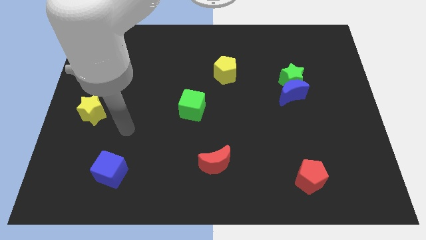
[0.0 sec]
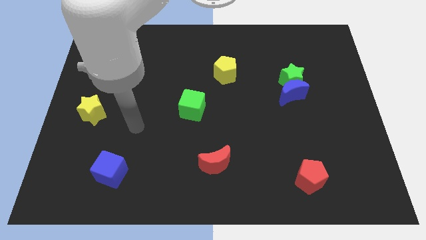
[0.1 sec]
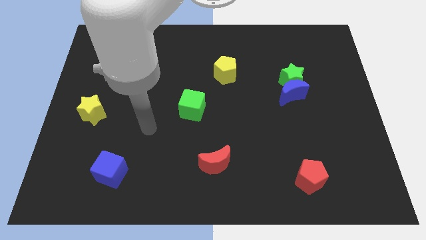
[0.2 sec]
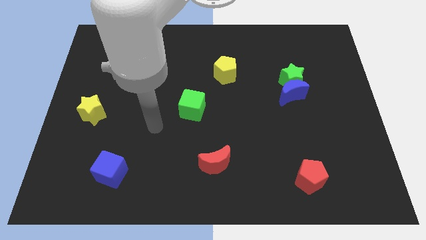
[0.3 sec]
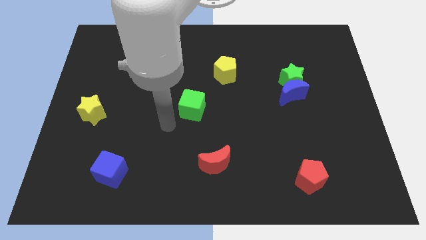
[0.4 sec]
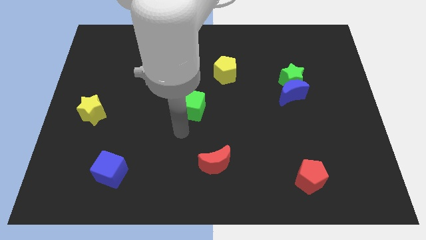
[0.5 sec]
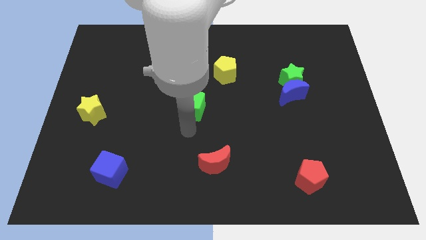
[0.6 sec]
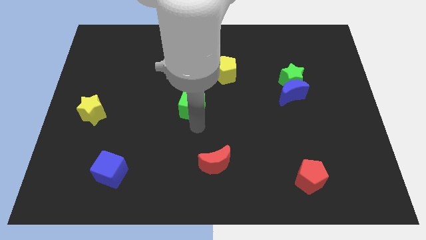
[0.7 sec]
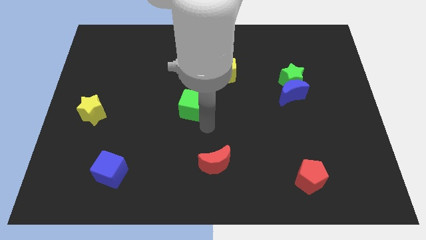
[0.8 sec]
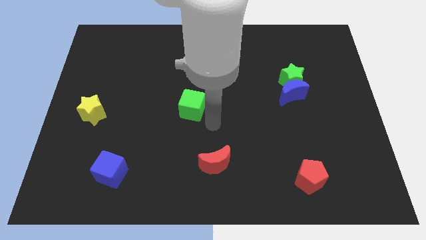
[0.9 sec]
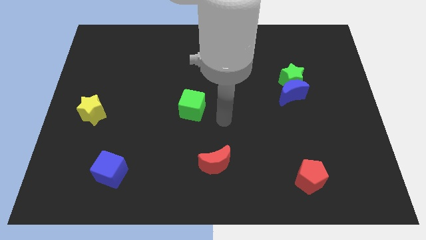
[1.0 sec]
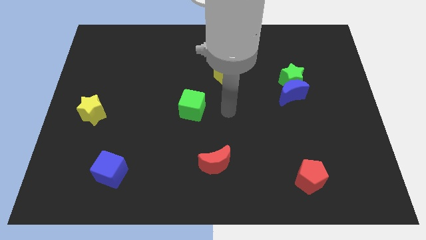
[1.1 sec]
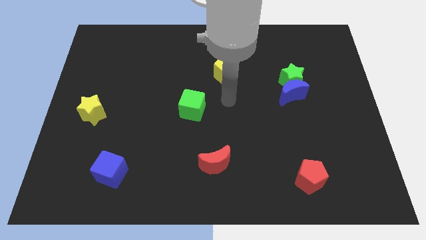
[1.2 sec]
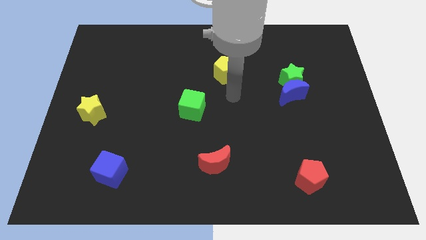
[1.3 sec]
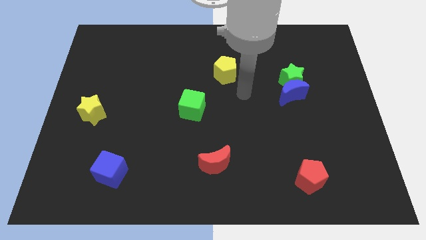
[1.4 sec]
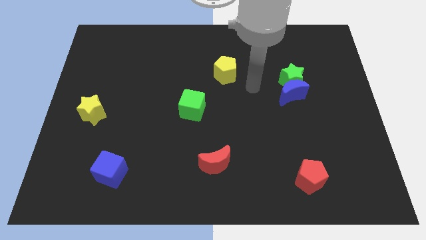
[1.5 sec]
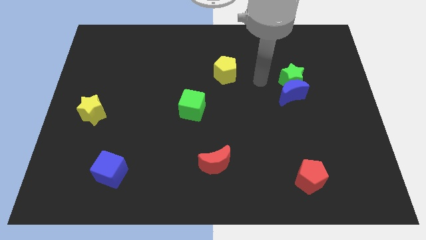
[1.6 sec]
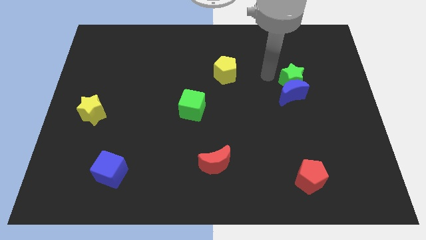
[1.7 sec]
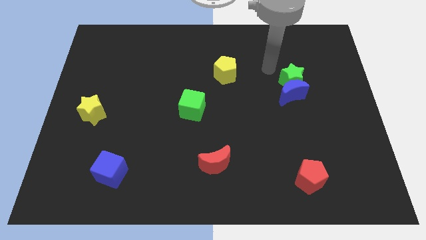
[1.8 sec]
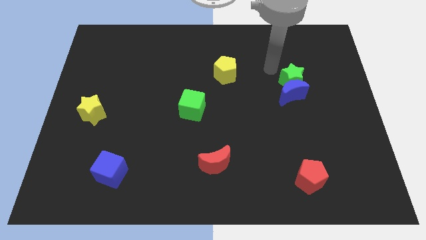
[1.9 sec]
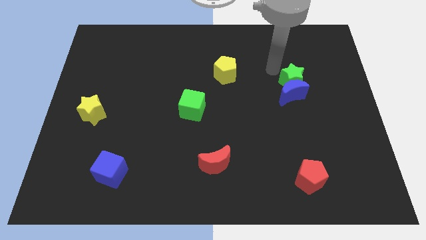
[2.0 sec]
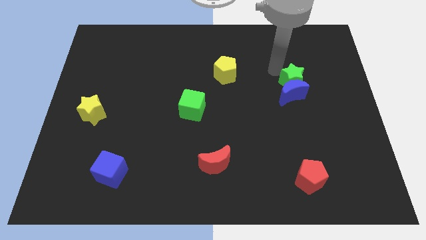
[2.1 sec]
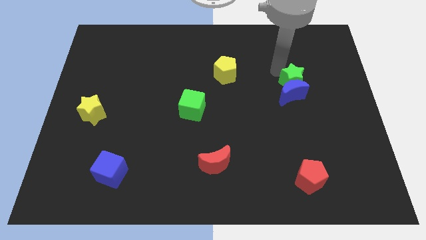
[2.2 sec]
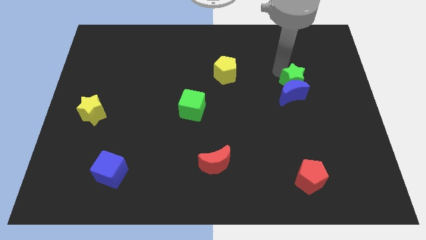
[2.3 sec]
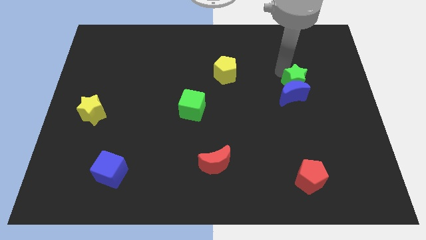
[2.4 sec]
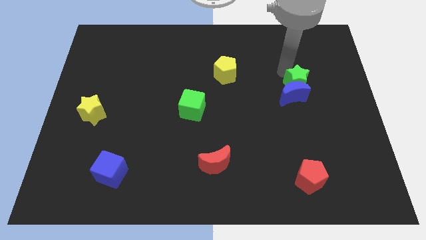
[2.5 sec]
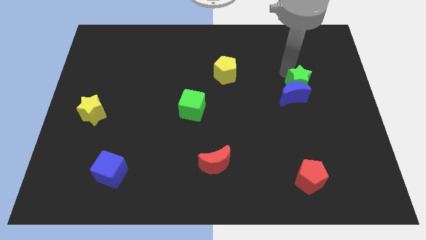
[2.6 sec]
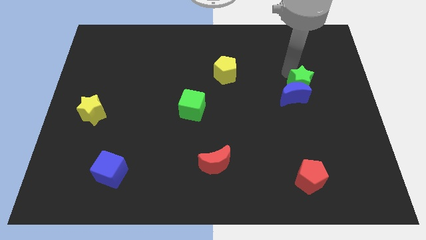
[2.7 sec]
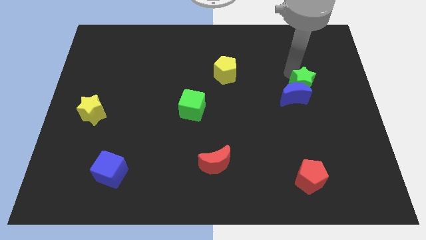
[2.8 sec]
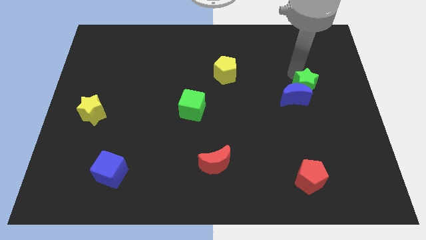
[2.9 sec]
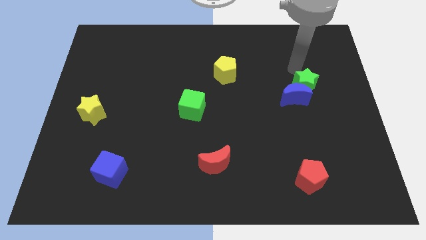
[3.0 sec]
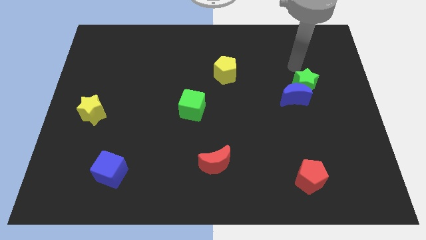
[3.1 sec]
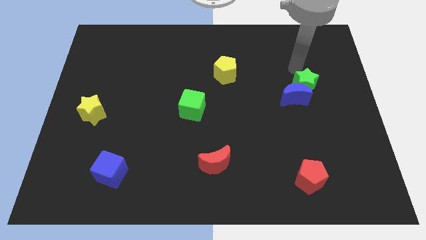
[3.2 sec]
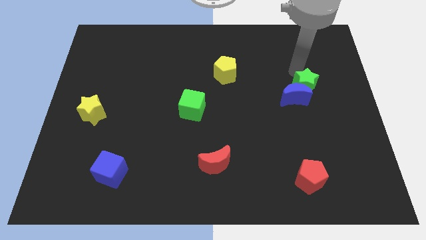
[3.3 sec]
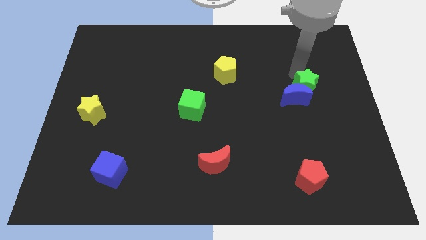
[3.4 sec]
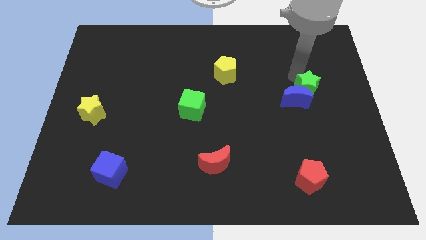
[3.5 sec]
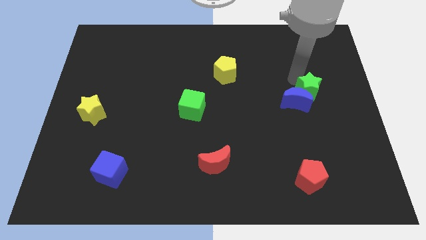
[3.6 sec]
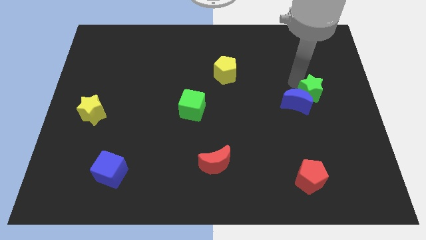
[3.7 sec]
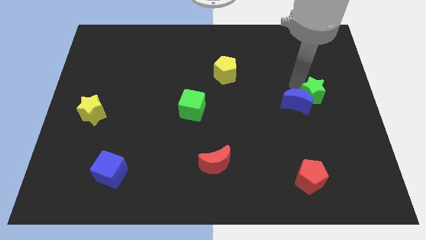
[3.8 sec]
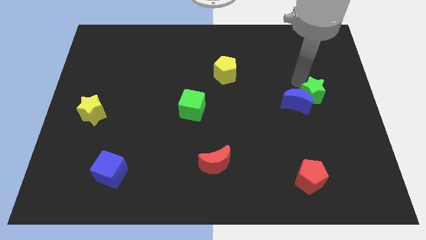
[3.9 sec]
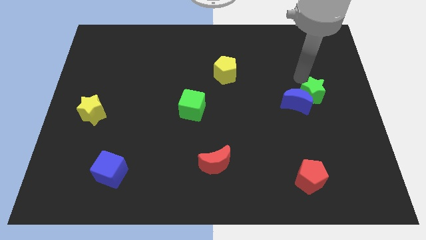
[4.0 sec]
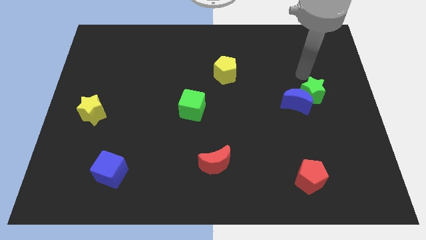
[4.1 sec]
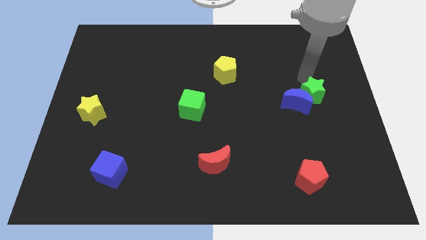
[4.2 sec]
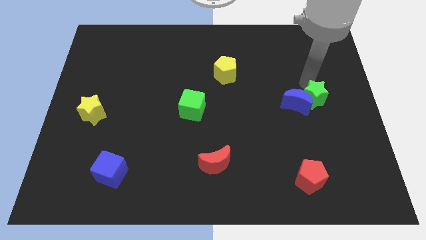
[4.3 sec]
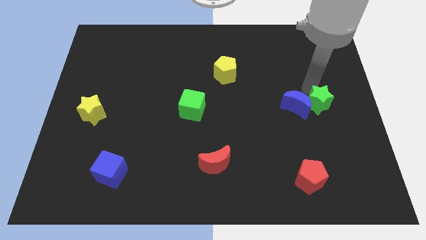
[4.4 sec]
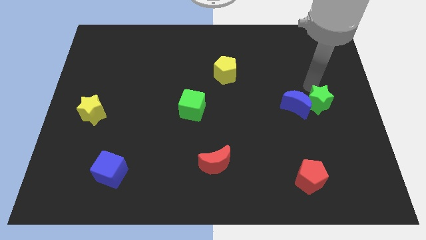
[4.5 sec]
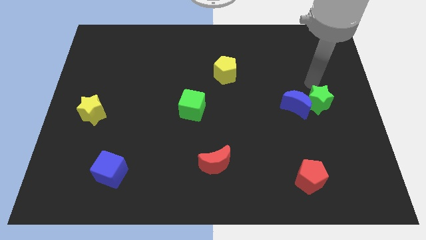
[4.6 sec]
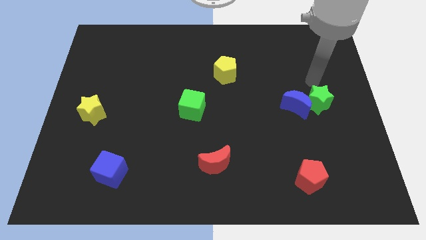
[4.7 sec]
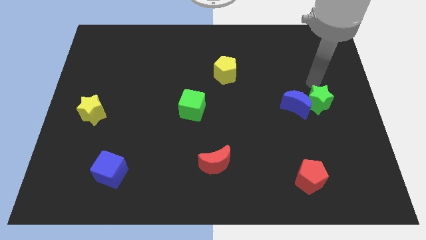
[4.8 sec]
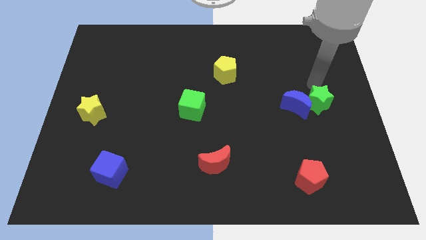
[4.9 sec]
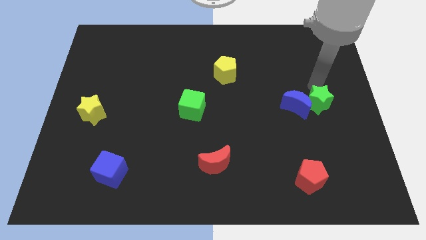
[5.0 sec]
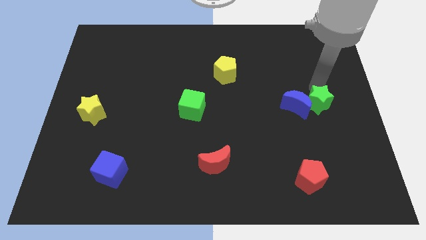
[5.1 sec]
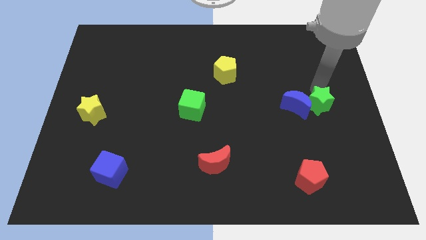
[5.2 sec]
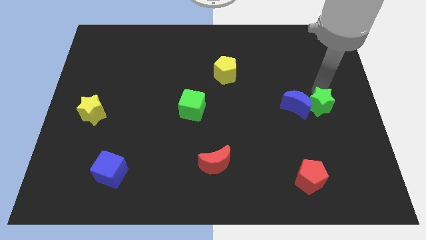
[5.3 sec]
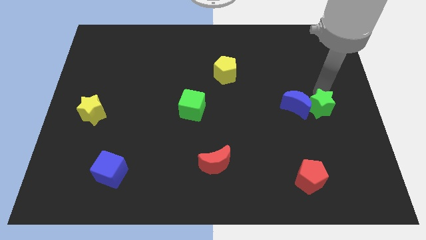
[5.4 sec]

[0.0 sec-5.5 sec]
push the green star somewhat down

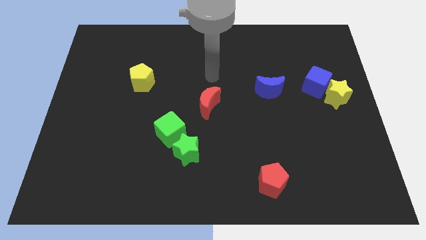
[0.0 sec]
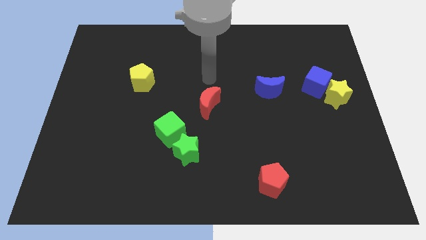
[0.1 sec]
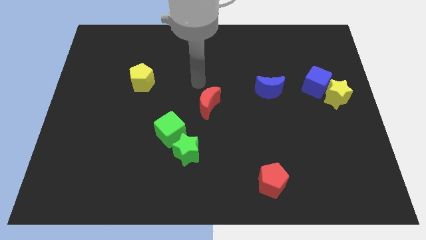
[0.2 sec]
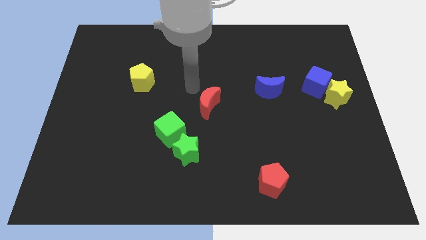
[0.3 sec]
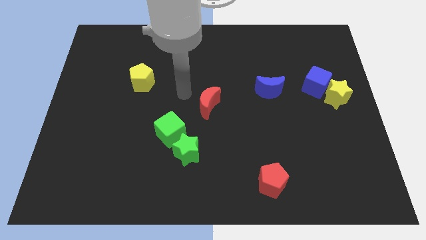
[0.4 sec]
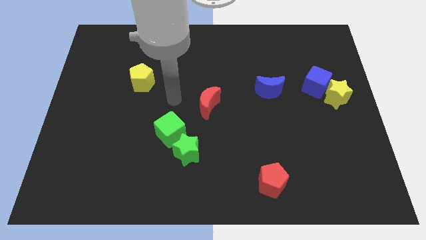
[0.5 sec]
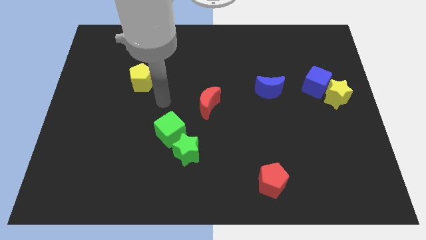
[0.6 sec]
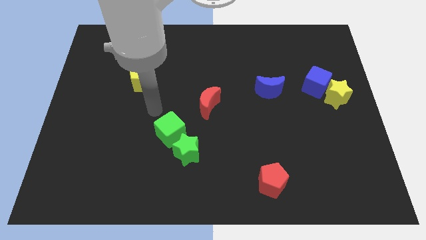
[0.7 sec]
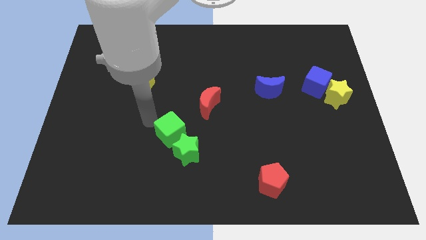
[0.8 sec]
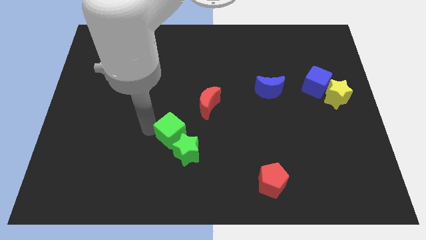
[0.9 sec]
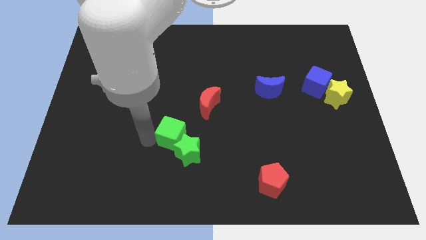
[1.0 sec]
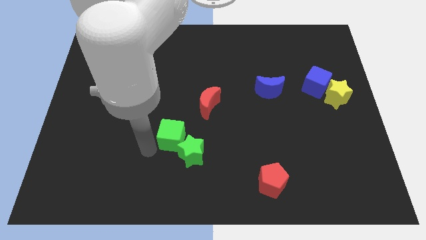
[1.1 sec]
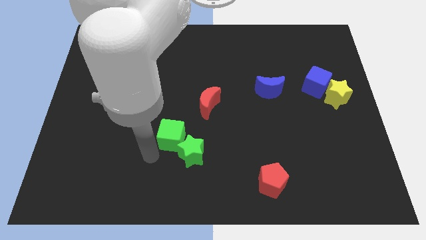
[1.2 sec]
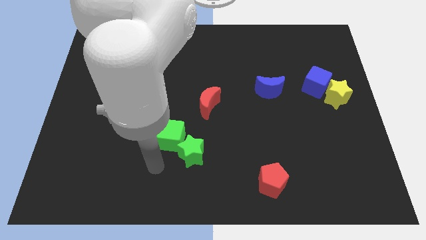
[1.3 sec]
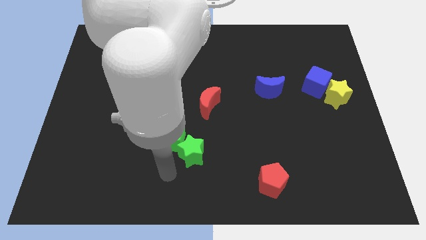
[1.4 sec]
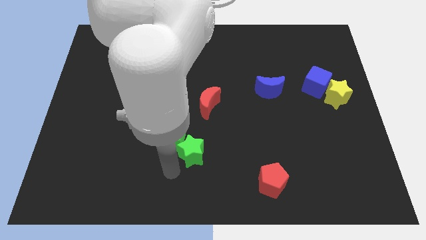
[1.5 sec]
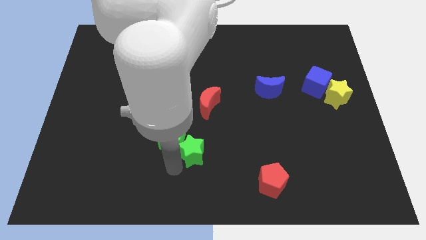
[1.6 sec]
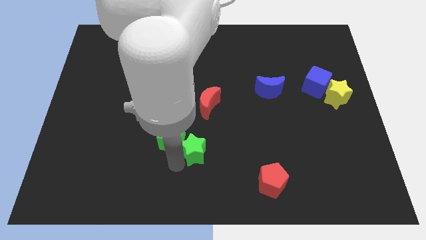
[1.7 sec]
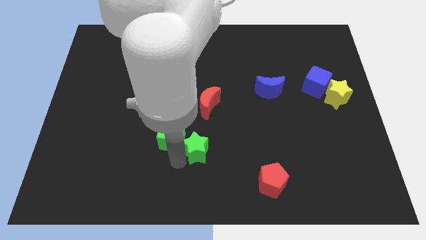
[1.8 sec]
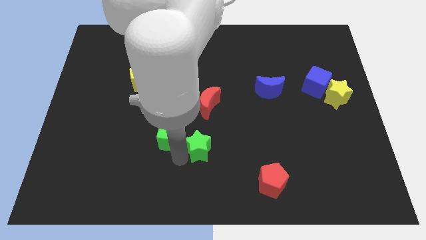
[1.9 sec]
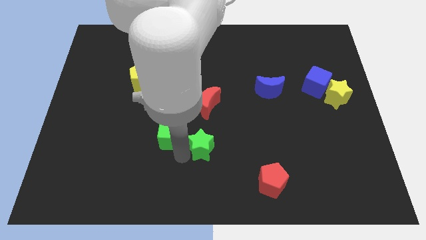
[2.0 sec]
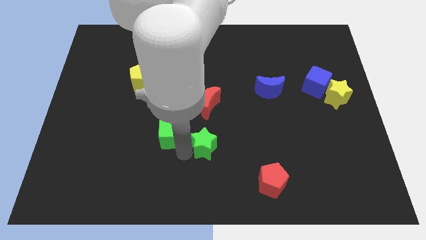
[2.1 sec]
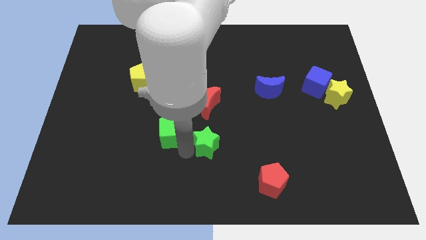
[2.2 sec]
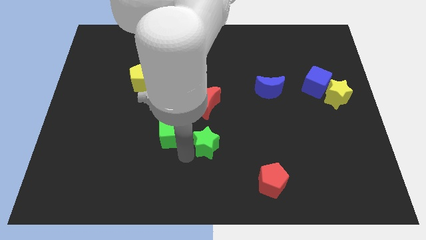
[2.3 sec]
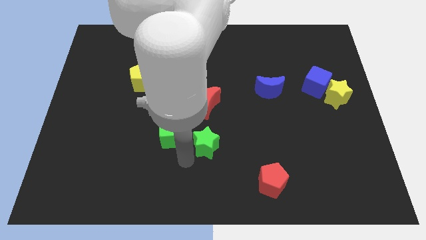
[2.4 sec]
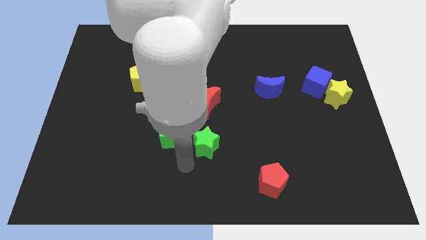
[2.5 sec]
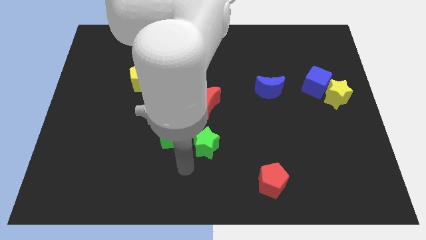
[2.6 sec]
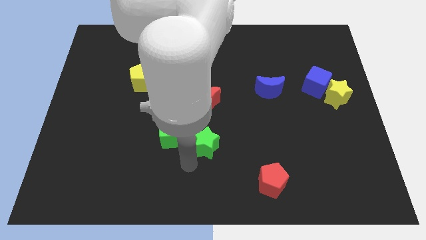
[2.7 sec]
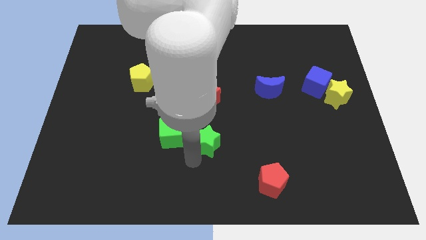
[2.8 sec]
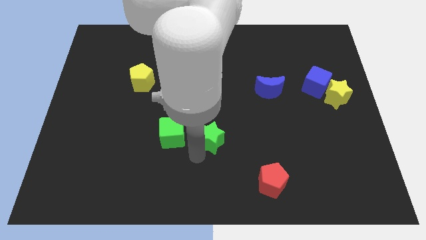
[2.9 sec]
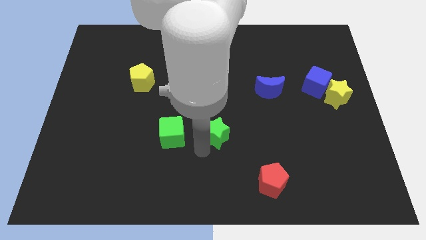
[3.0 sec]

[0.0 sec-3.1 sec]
slide the green star up and right a little bit
